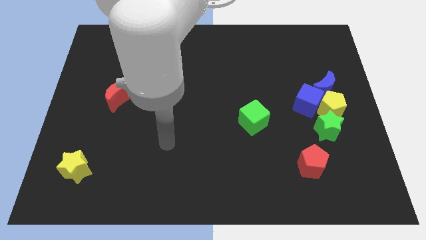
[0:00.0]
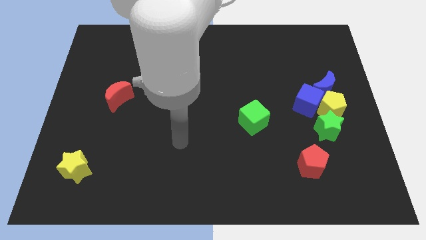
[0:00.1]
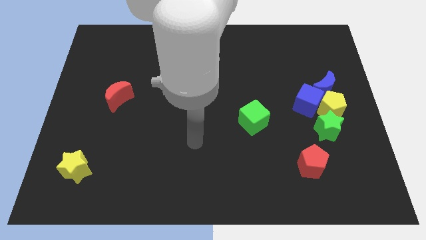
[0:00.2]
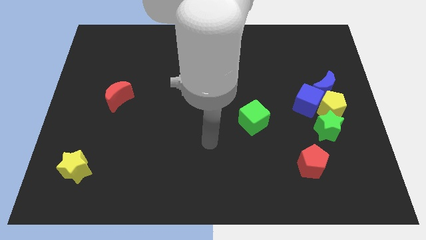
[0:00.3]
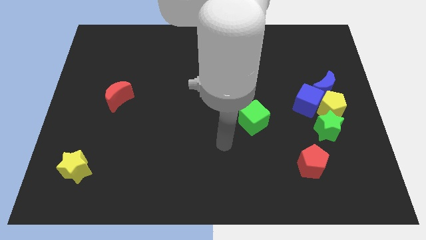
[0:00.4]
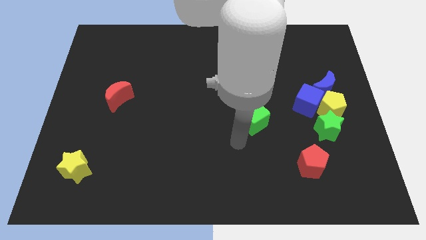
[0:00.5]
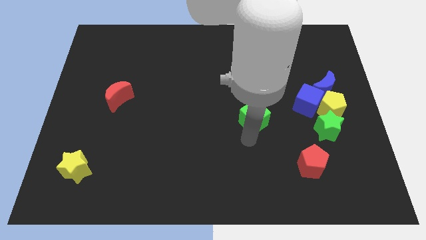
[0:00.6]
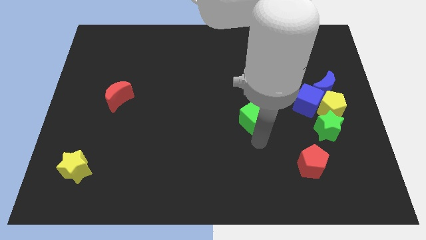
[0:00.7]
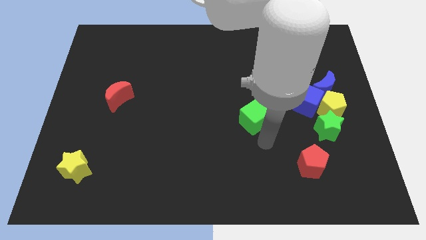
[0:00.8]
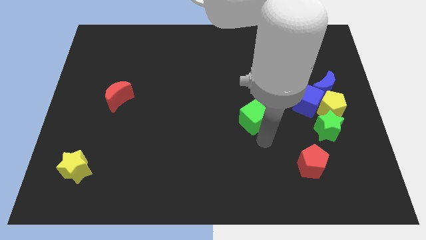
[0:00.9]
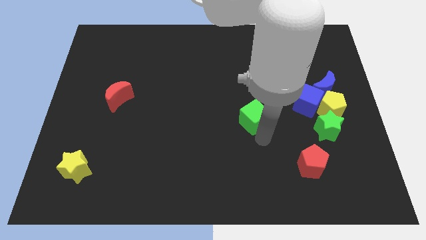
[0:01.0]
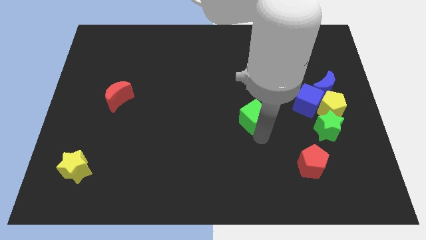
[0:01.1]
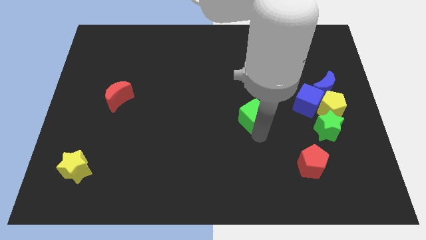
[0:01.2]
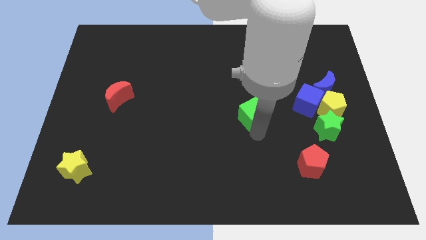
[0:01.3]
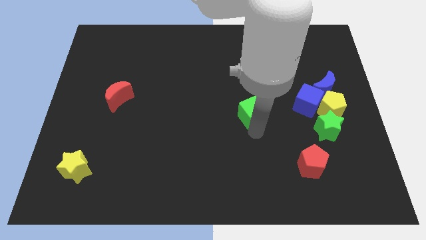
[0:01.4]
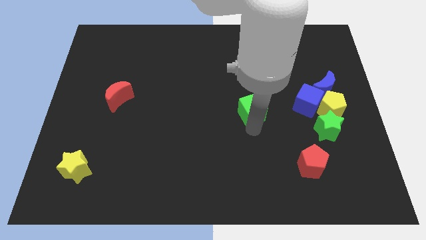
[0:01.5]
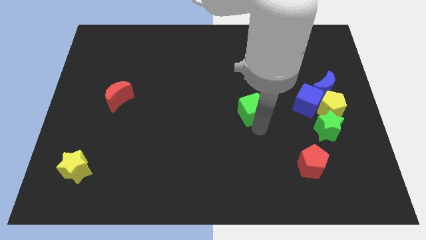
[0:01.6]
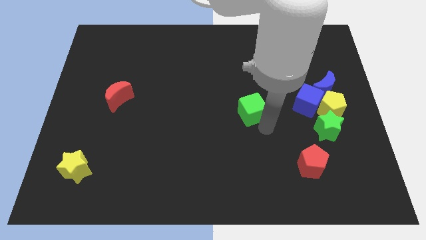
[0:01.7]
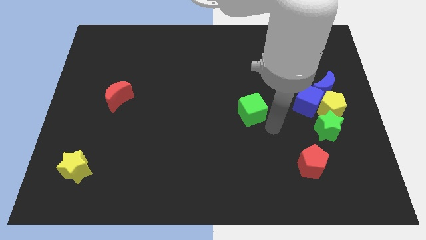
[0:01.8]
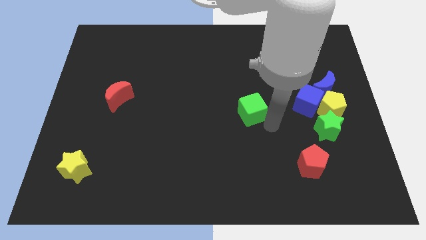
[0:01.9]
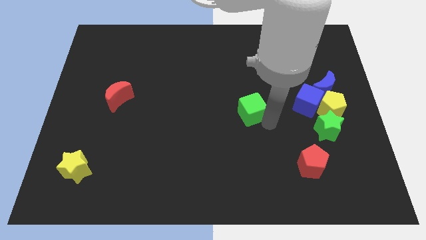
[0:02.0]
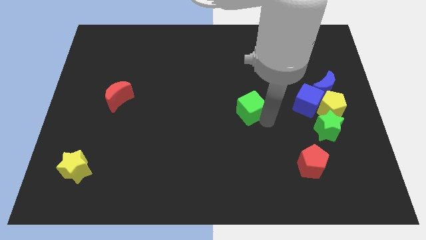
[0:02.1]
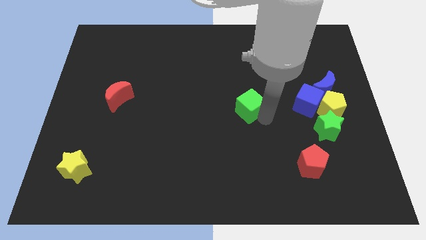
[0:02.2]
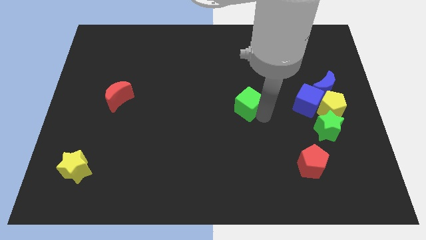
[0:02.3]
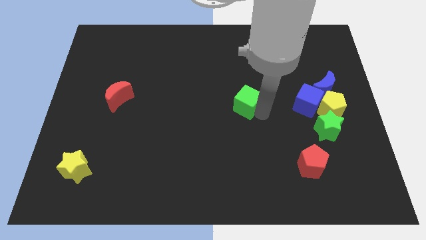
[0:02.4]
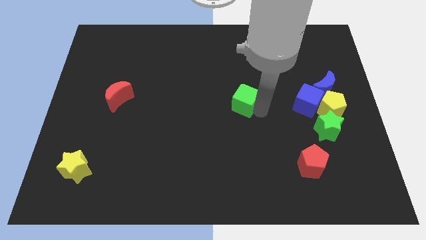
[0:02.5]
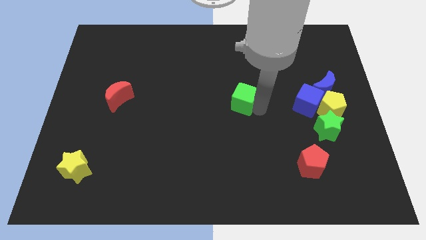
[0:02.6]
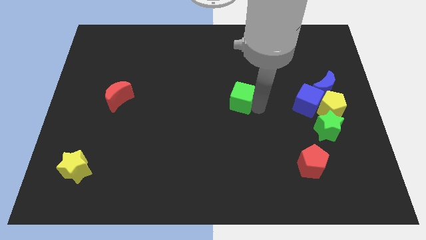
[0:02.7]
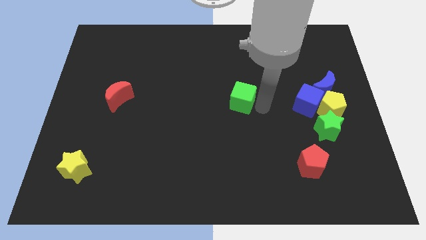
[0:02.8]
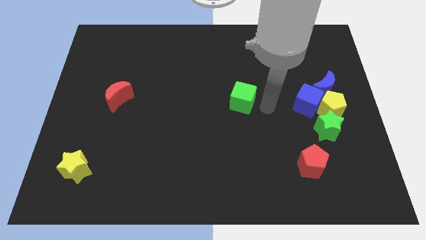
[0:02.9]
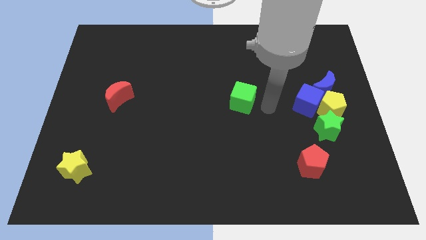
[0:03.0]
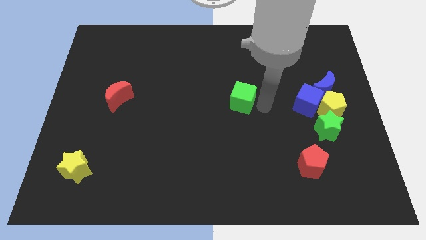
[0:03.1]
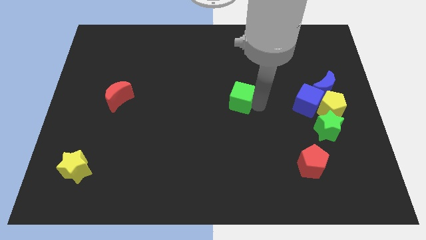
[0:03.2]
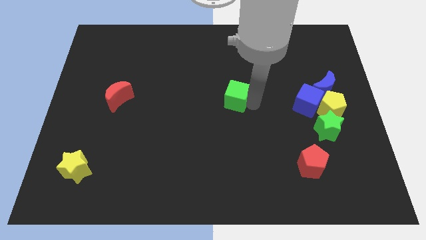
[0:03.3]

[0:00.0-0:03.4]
move the green cube somewhat diagonally upwards and to the left

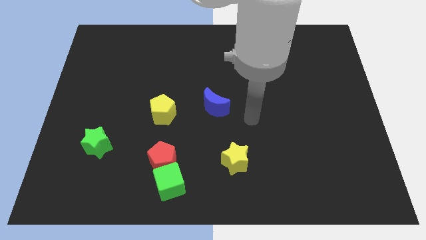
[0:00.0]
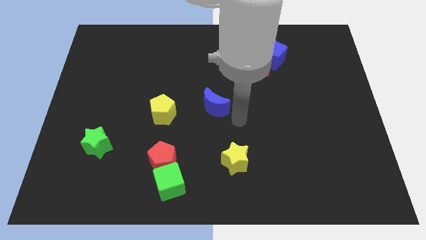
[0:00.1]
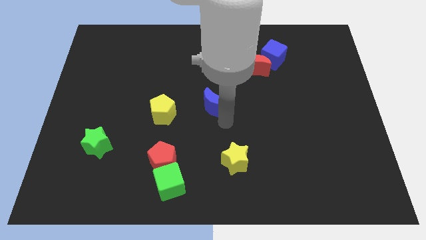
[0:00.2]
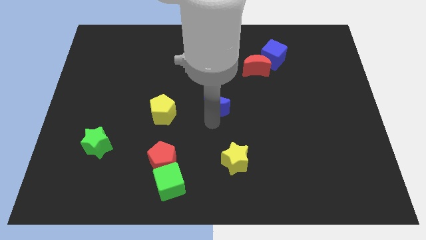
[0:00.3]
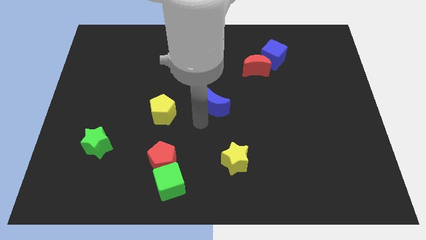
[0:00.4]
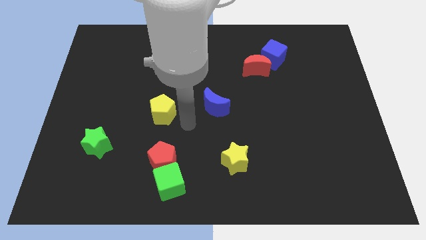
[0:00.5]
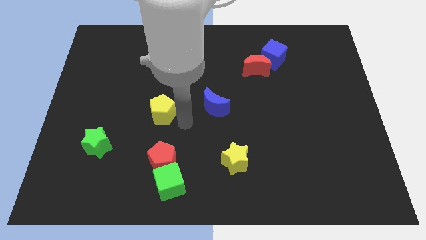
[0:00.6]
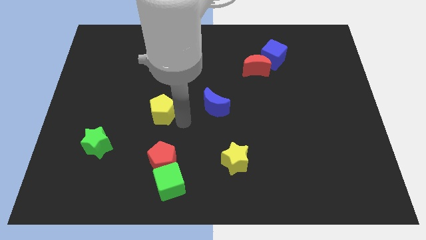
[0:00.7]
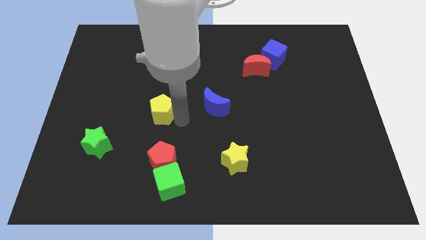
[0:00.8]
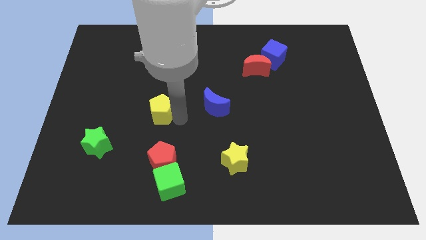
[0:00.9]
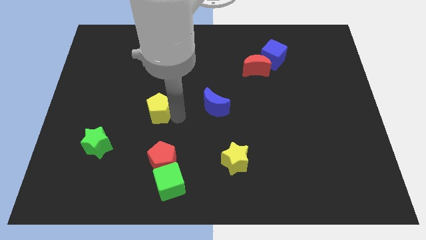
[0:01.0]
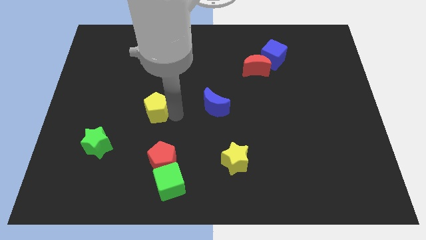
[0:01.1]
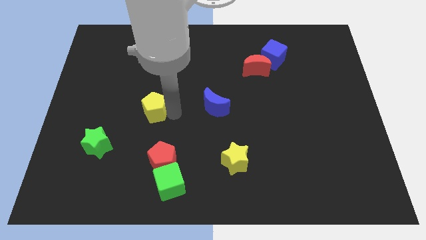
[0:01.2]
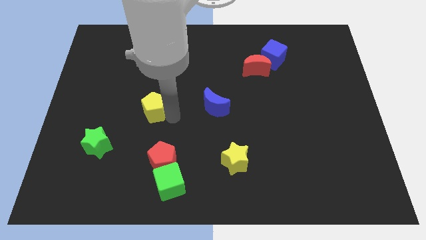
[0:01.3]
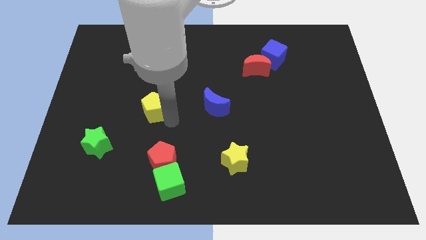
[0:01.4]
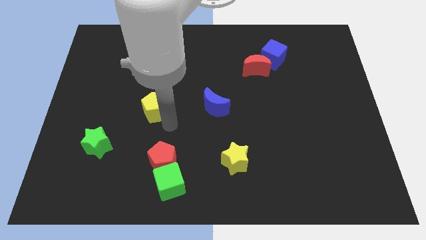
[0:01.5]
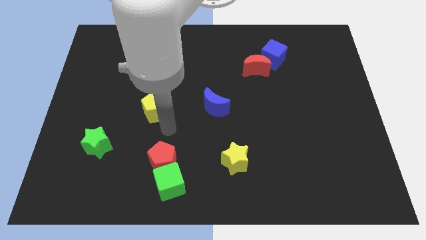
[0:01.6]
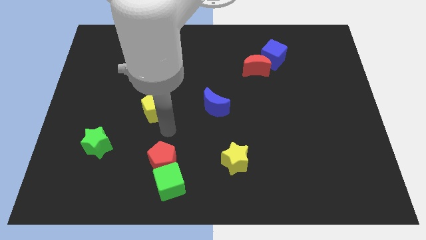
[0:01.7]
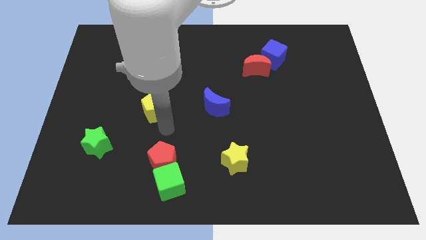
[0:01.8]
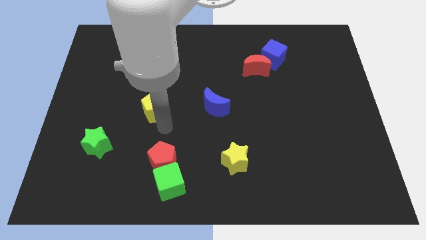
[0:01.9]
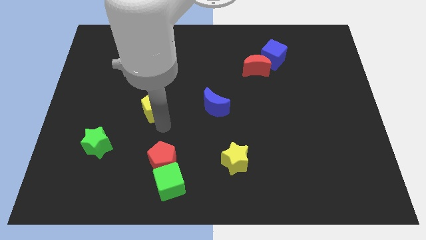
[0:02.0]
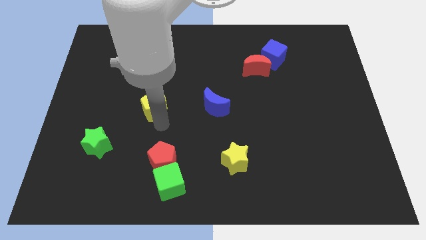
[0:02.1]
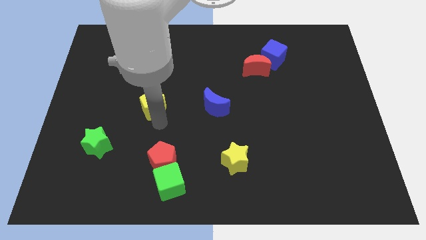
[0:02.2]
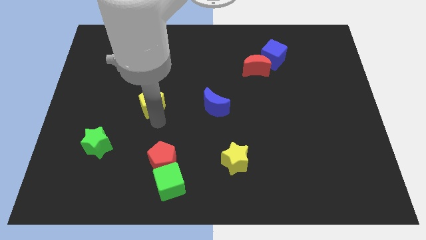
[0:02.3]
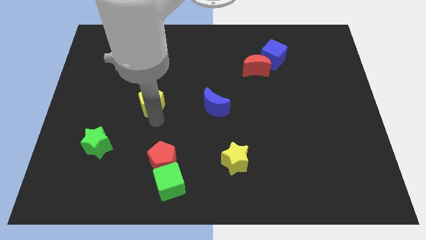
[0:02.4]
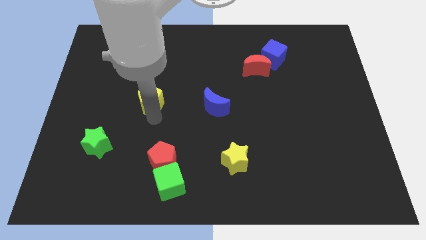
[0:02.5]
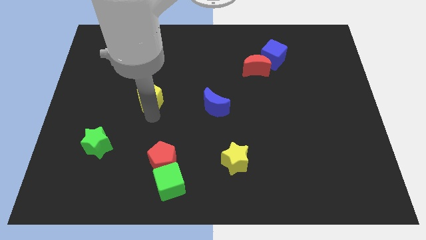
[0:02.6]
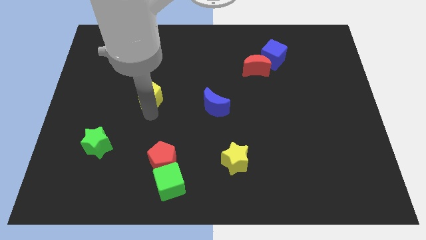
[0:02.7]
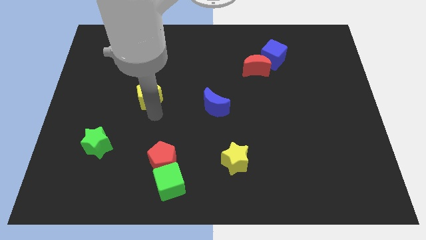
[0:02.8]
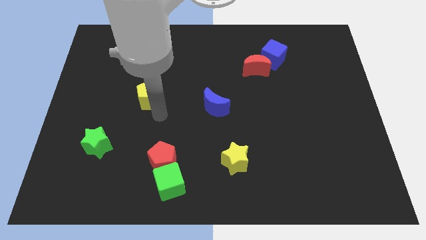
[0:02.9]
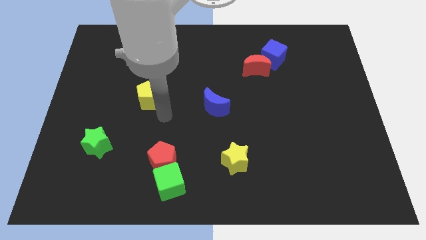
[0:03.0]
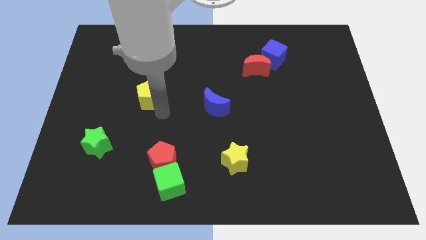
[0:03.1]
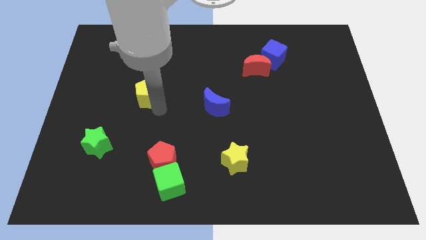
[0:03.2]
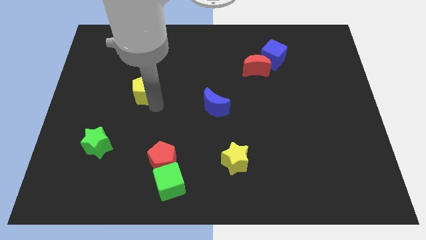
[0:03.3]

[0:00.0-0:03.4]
slightly push the yellow pentagon up and left diagonally

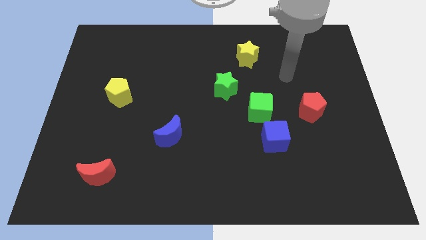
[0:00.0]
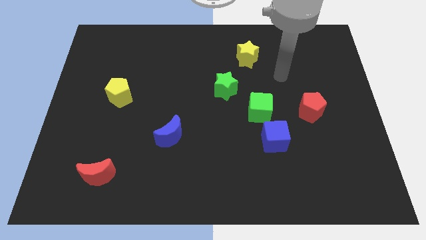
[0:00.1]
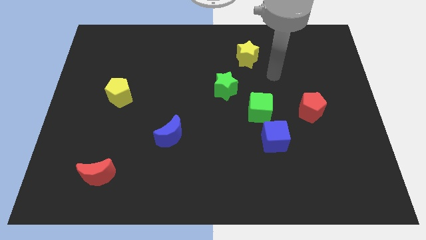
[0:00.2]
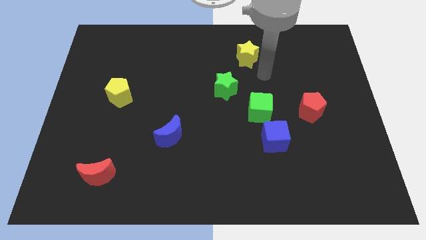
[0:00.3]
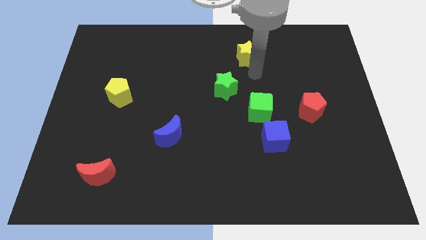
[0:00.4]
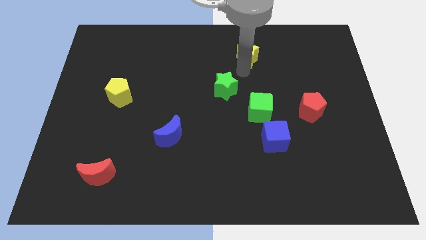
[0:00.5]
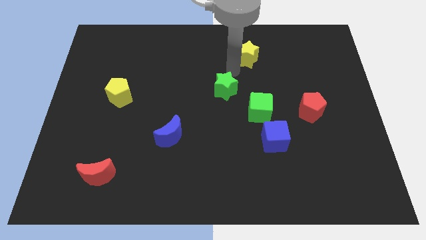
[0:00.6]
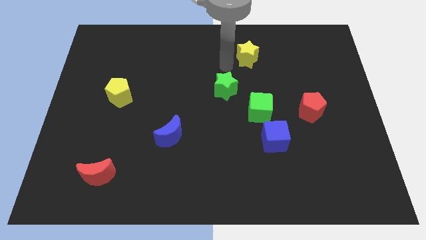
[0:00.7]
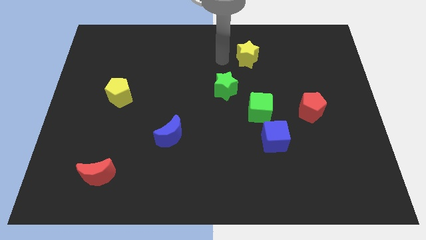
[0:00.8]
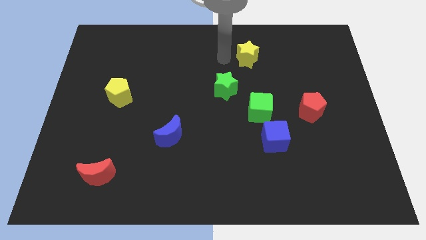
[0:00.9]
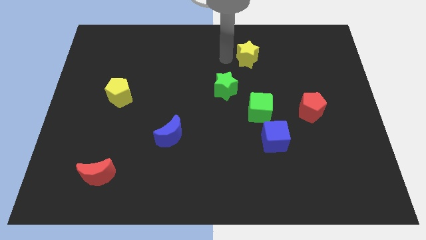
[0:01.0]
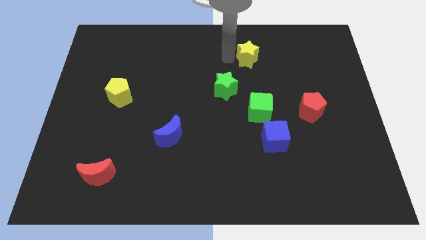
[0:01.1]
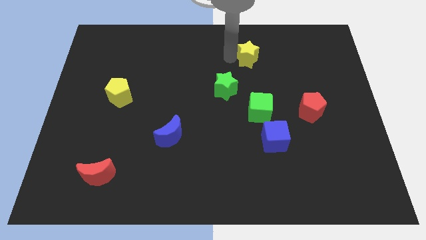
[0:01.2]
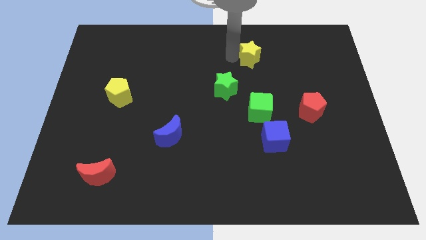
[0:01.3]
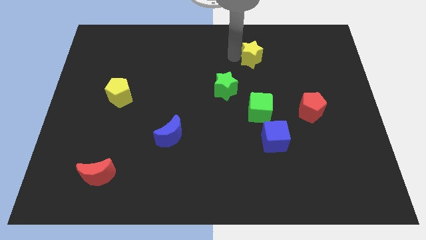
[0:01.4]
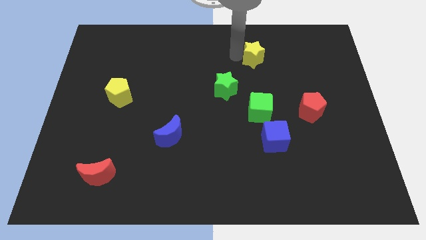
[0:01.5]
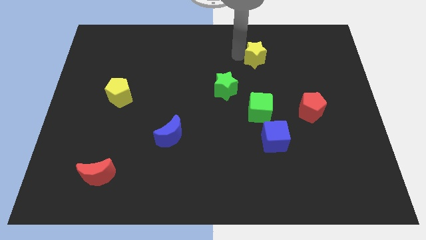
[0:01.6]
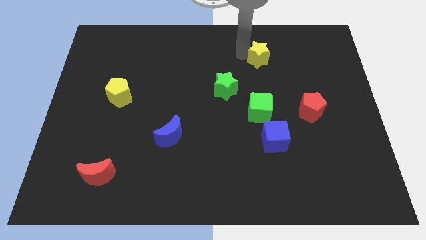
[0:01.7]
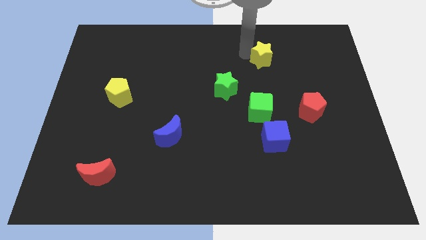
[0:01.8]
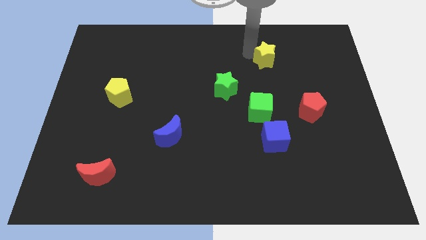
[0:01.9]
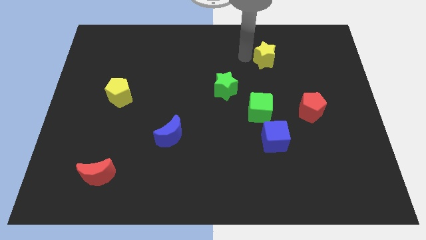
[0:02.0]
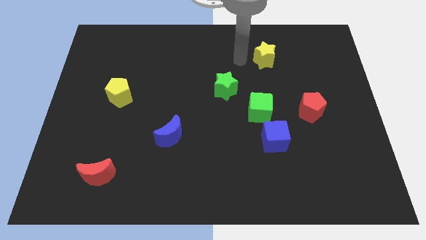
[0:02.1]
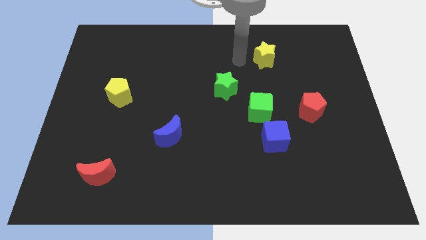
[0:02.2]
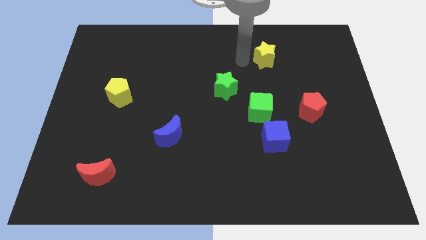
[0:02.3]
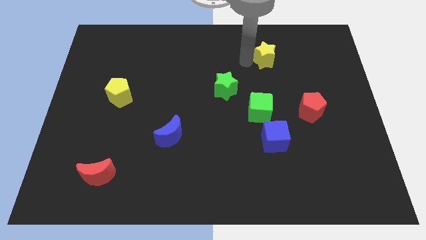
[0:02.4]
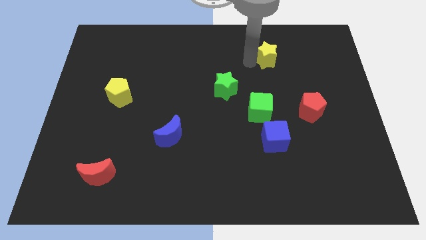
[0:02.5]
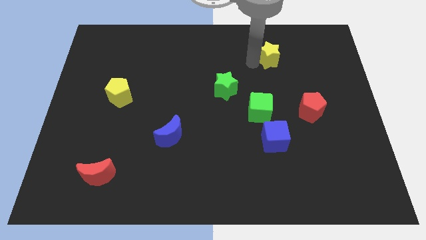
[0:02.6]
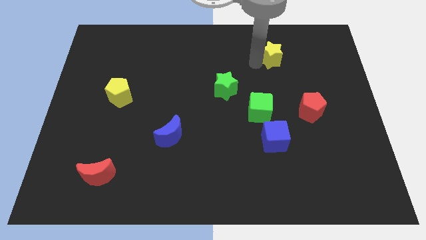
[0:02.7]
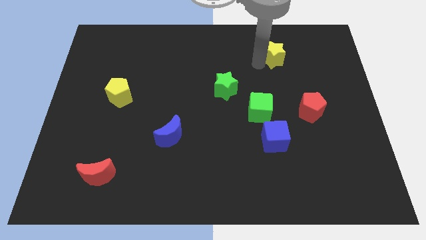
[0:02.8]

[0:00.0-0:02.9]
slightly slide the yellow star right
